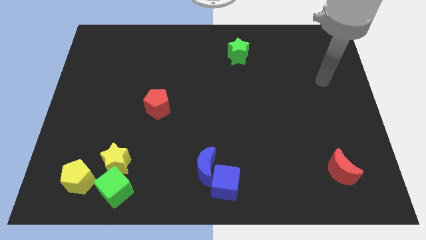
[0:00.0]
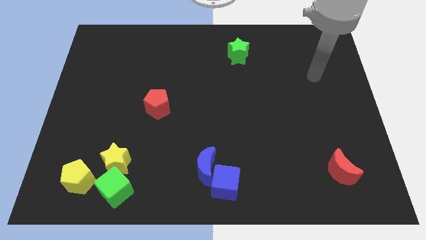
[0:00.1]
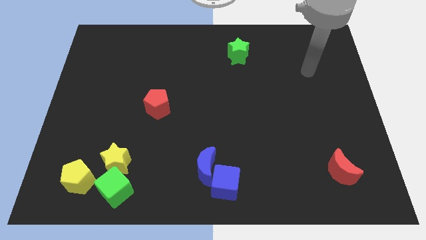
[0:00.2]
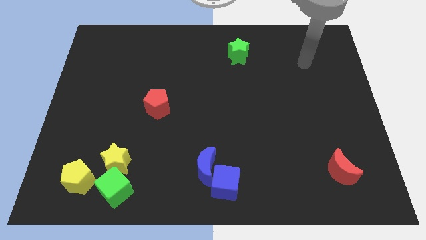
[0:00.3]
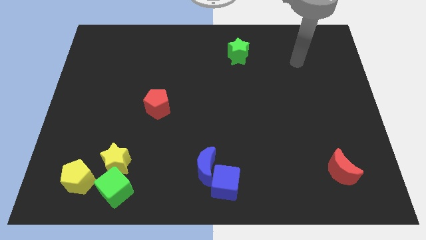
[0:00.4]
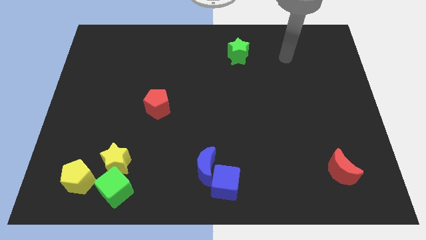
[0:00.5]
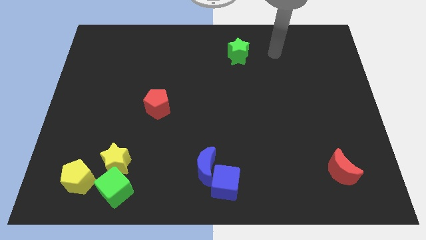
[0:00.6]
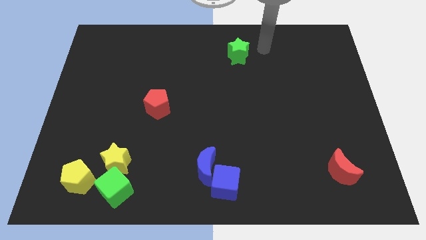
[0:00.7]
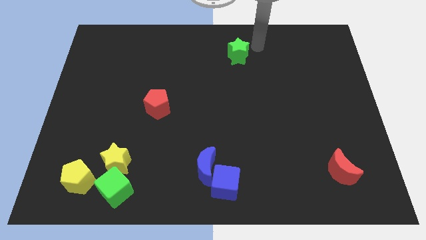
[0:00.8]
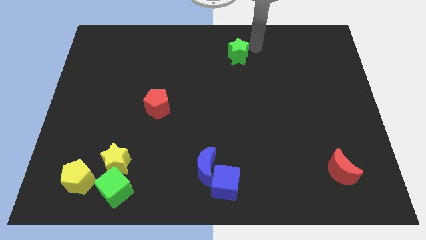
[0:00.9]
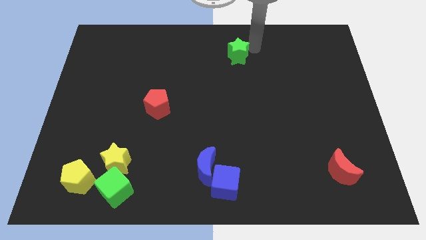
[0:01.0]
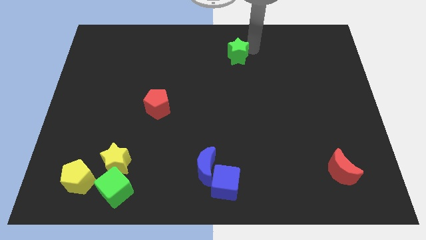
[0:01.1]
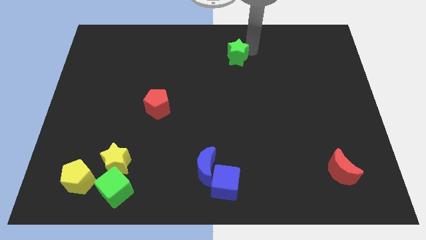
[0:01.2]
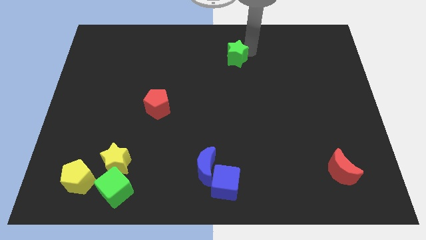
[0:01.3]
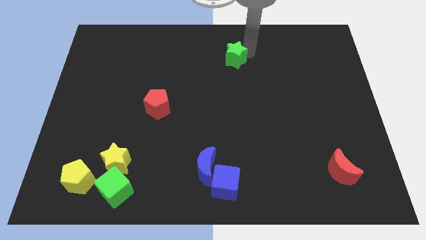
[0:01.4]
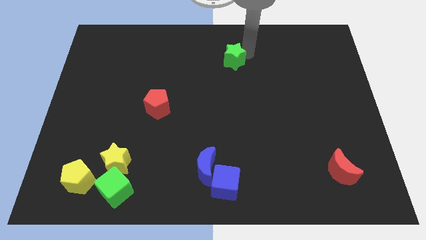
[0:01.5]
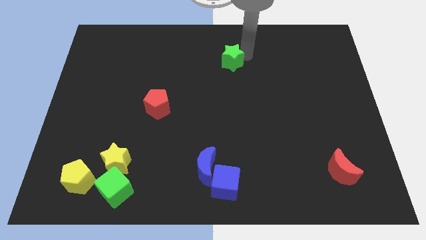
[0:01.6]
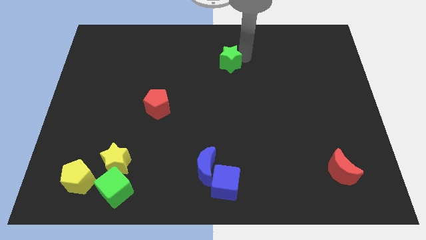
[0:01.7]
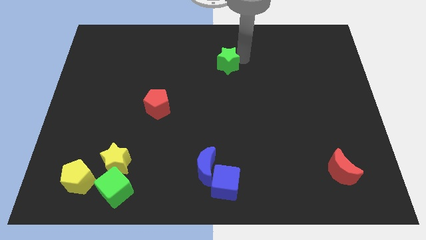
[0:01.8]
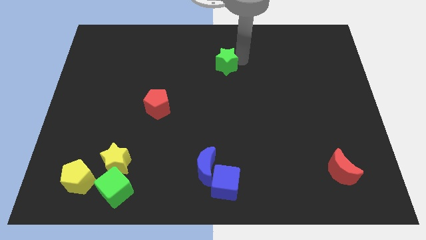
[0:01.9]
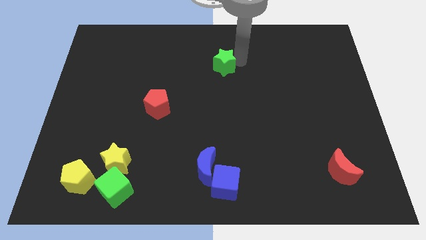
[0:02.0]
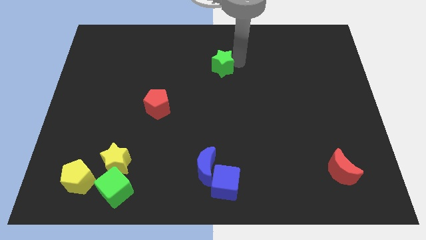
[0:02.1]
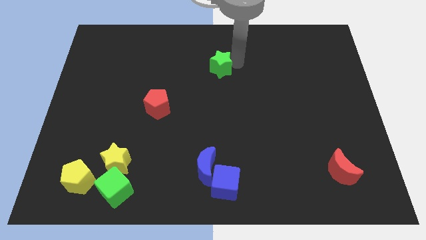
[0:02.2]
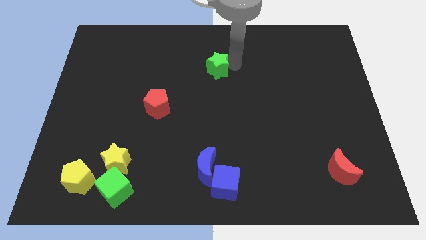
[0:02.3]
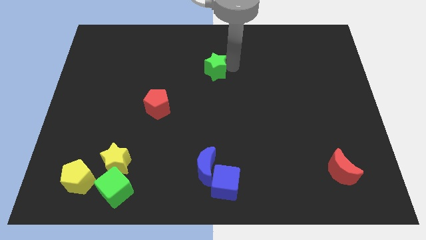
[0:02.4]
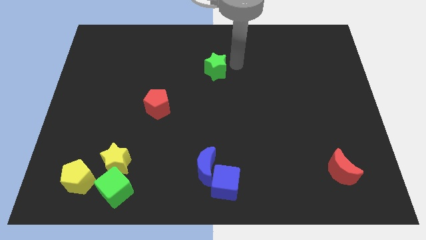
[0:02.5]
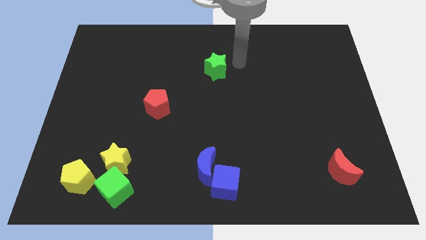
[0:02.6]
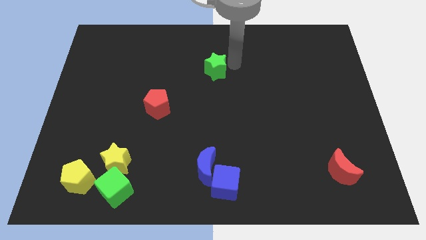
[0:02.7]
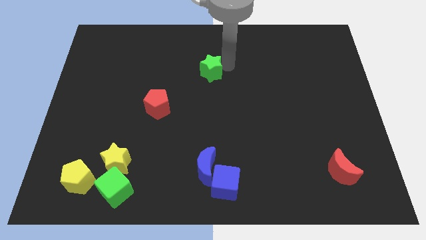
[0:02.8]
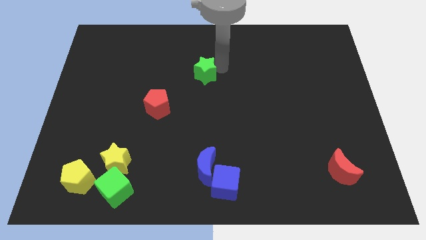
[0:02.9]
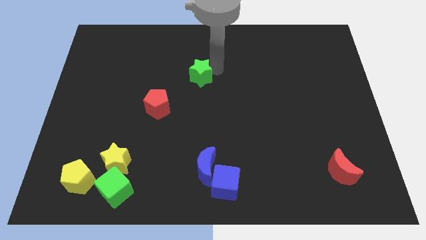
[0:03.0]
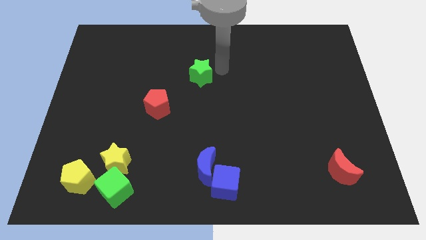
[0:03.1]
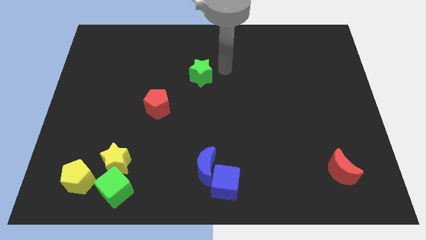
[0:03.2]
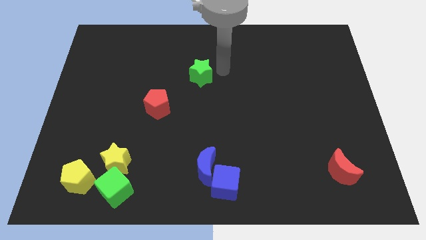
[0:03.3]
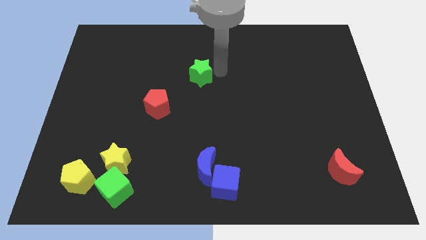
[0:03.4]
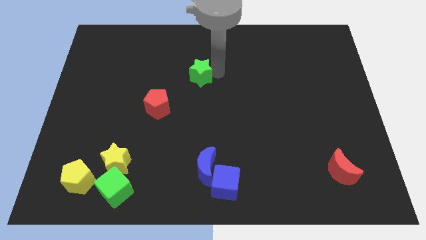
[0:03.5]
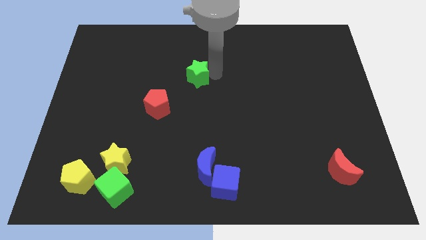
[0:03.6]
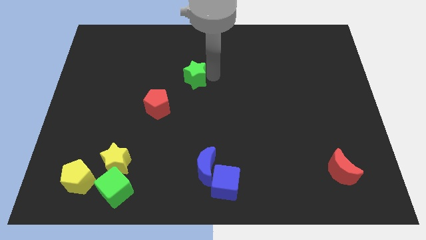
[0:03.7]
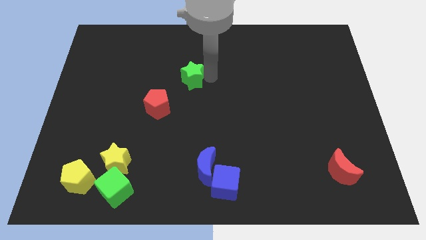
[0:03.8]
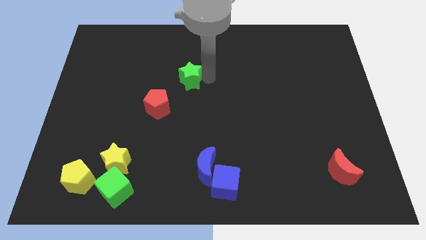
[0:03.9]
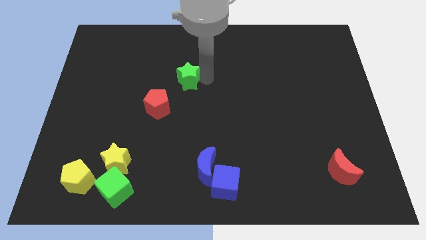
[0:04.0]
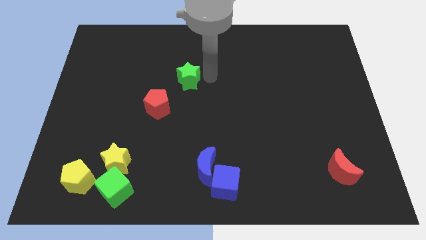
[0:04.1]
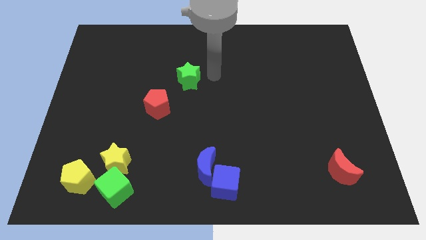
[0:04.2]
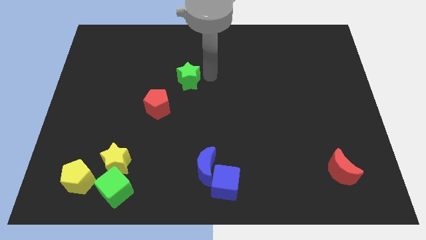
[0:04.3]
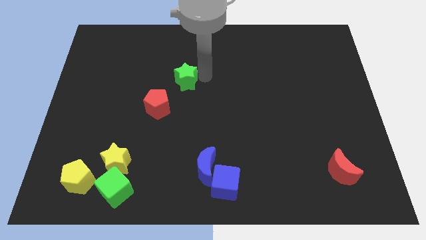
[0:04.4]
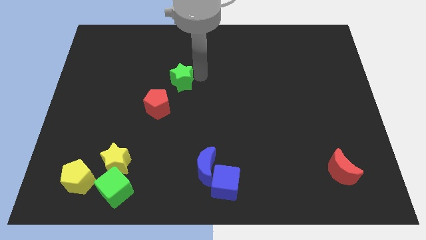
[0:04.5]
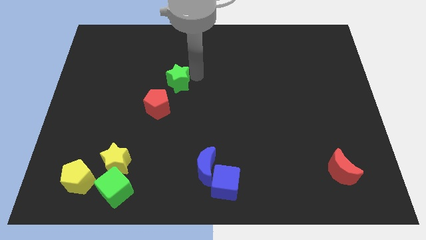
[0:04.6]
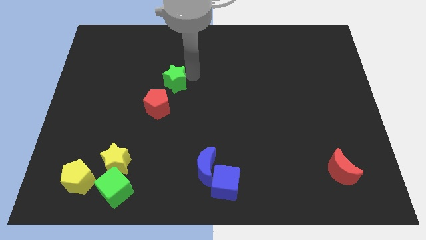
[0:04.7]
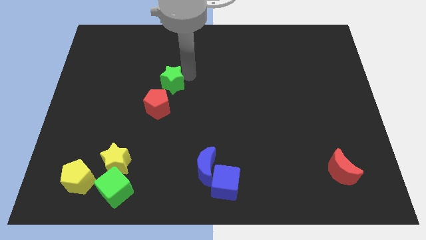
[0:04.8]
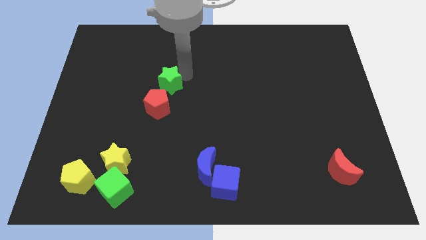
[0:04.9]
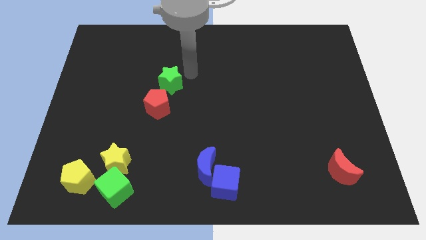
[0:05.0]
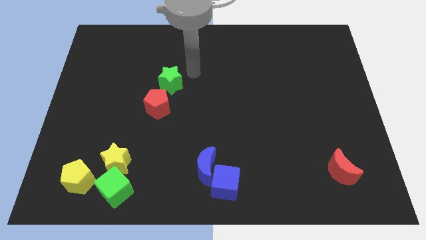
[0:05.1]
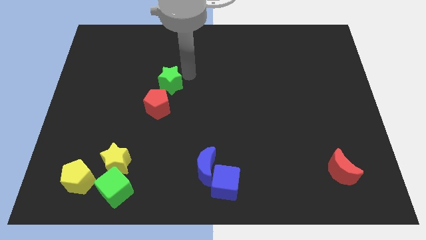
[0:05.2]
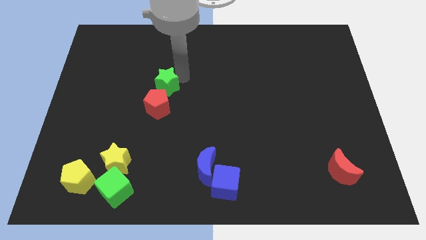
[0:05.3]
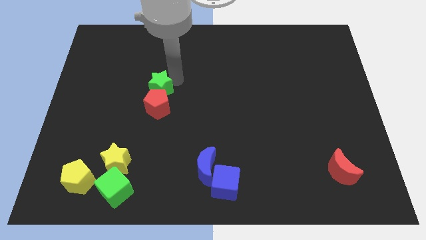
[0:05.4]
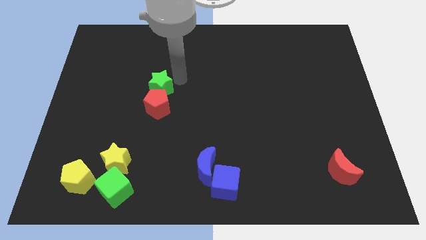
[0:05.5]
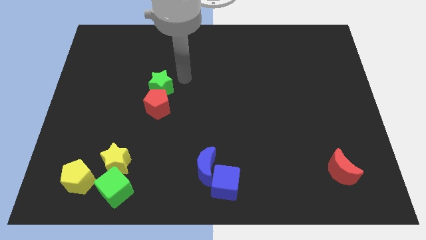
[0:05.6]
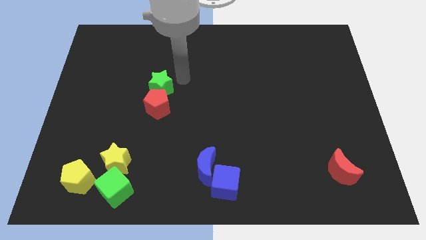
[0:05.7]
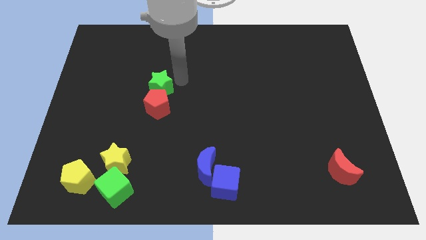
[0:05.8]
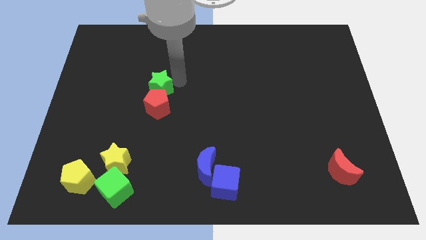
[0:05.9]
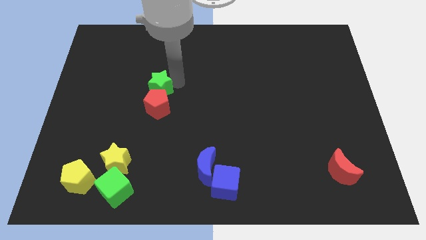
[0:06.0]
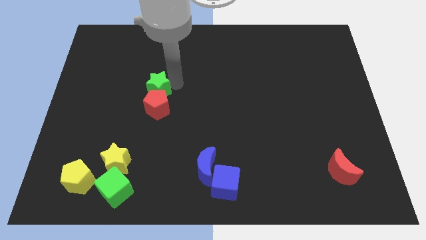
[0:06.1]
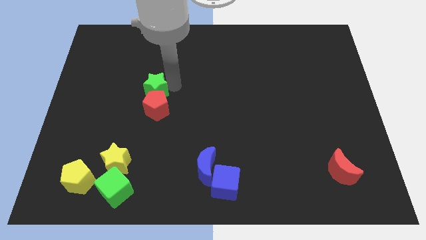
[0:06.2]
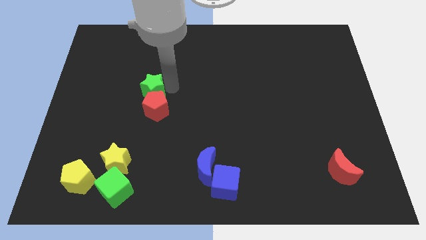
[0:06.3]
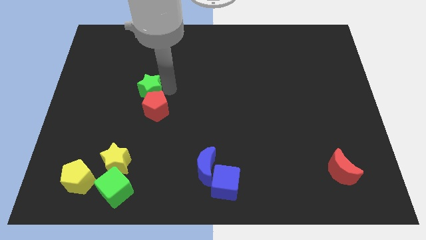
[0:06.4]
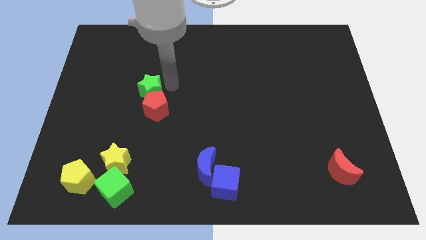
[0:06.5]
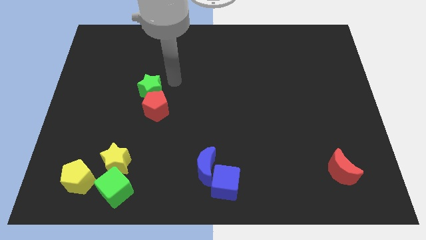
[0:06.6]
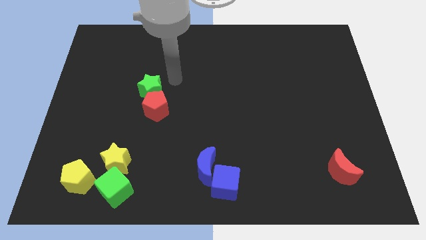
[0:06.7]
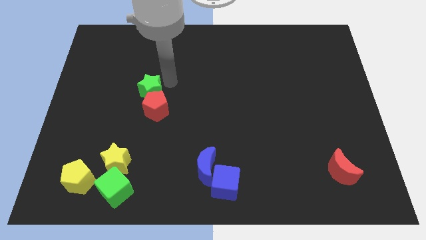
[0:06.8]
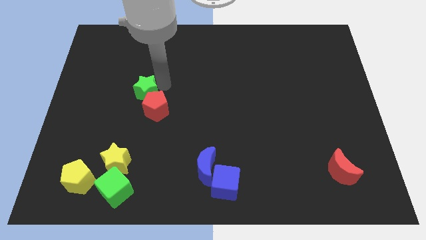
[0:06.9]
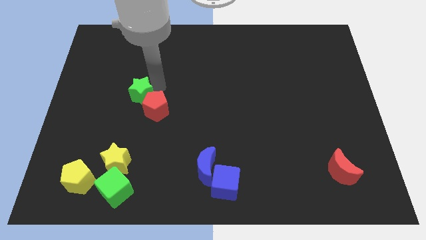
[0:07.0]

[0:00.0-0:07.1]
move the green star to the left side of the red pentagon
